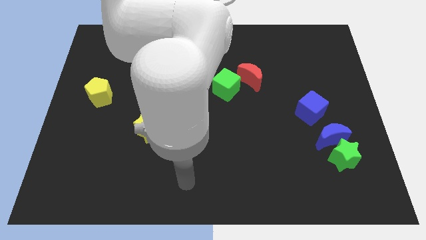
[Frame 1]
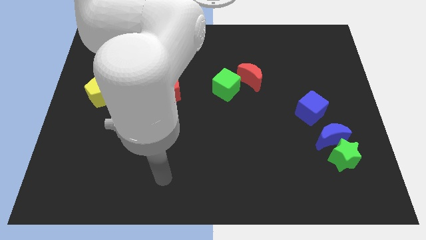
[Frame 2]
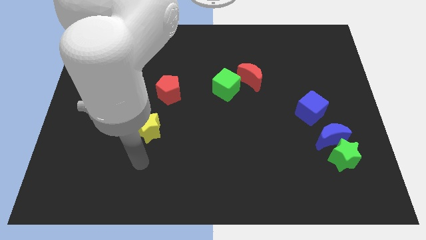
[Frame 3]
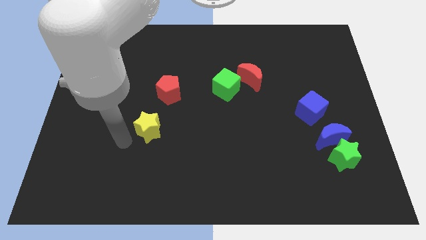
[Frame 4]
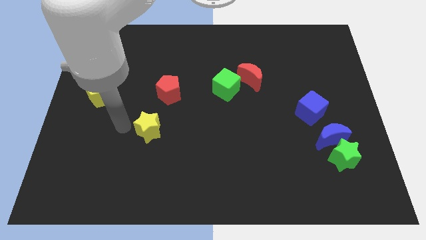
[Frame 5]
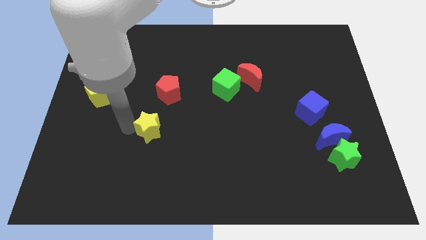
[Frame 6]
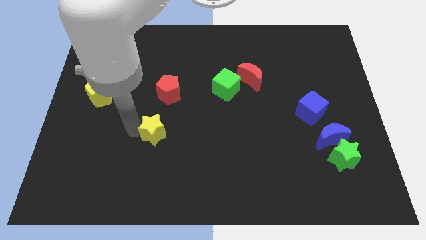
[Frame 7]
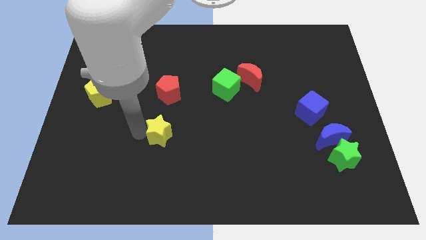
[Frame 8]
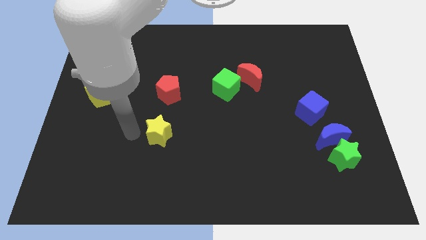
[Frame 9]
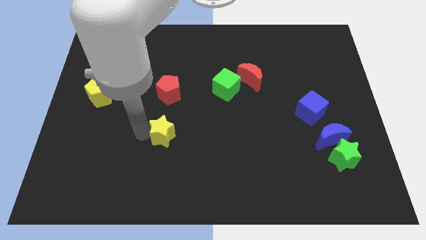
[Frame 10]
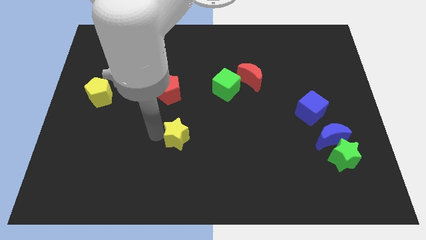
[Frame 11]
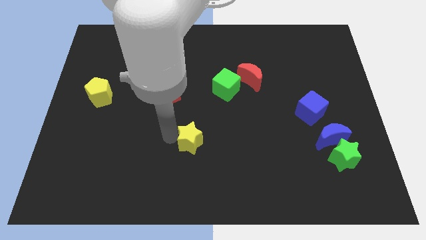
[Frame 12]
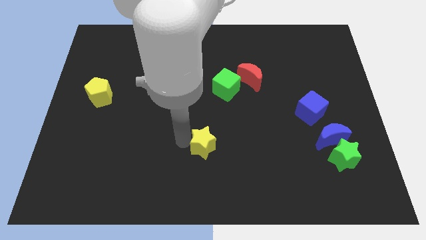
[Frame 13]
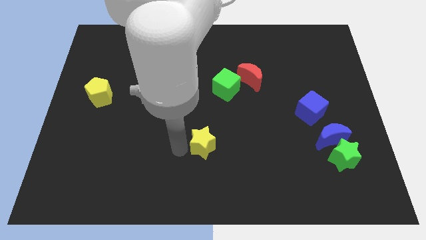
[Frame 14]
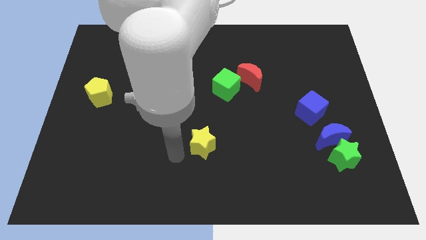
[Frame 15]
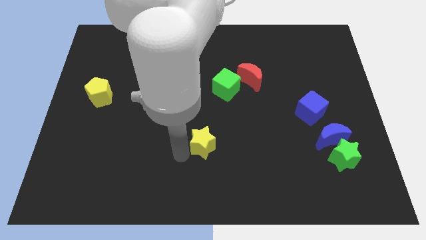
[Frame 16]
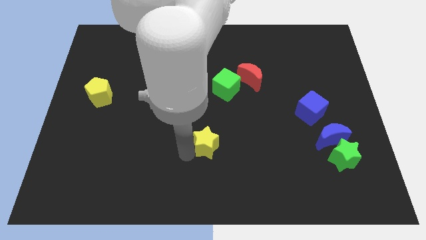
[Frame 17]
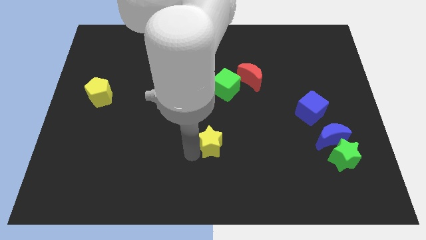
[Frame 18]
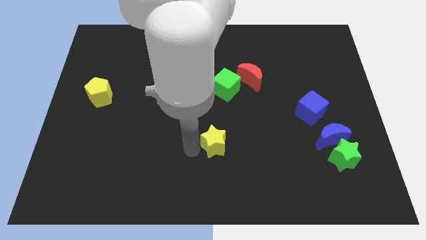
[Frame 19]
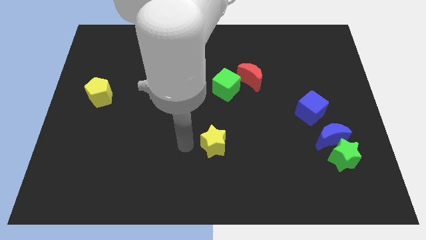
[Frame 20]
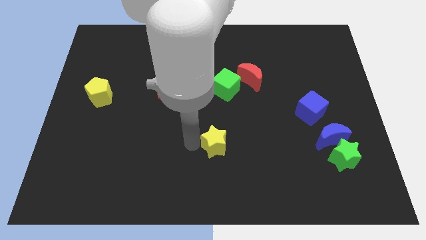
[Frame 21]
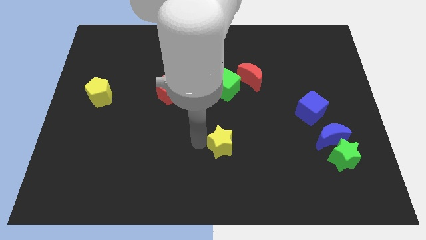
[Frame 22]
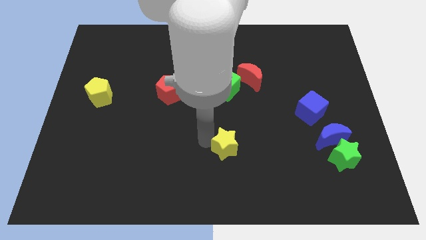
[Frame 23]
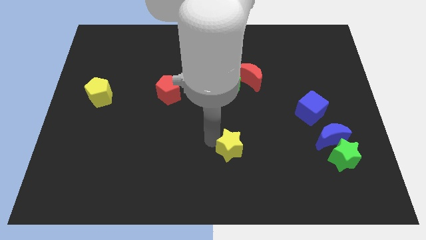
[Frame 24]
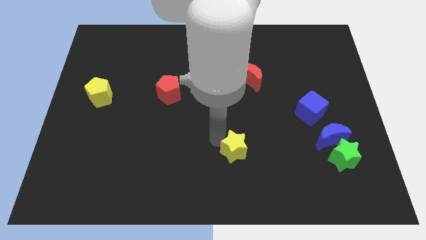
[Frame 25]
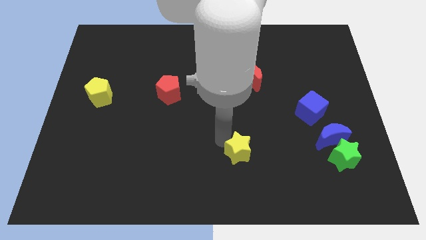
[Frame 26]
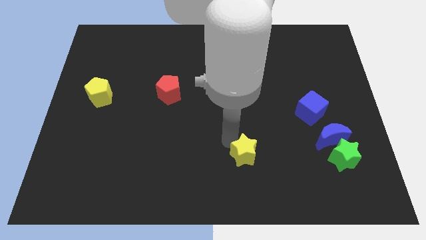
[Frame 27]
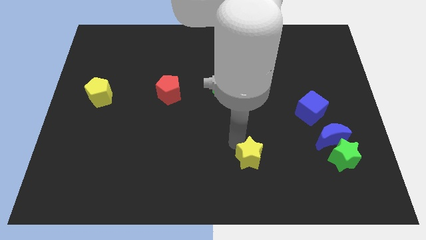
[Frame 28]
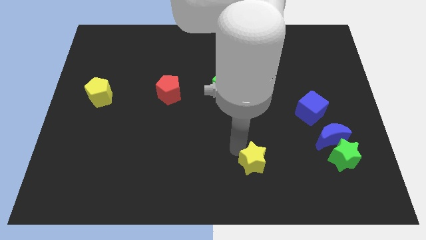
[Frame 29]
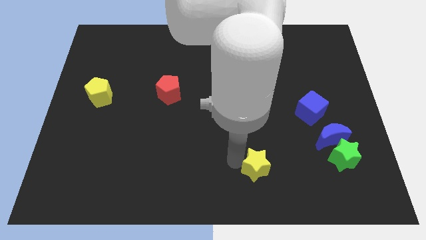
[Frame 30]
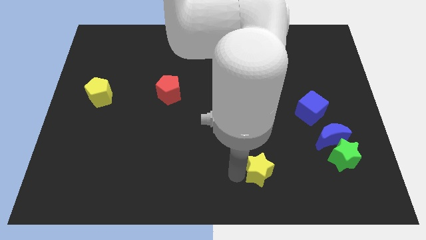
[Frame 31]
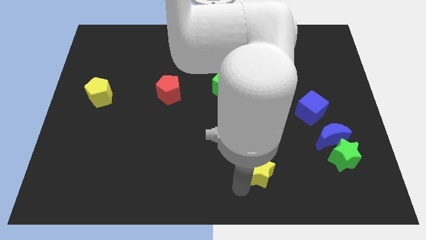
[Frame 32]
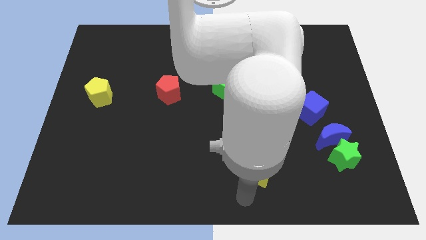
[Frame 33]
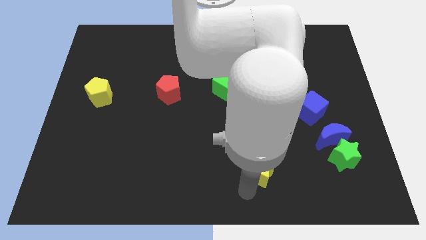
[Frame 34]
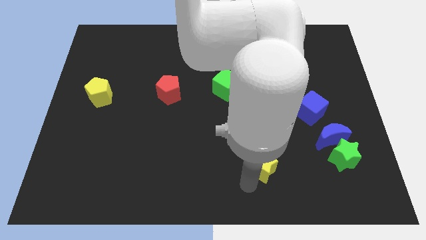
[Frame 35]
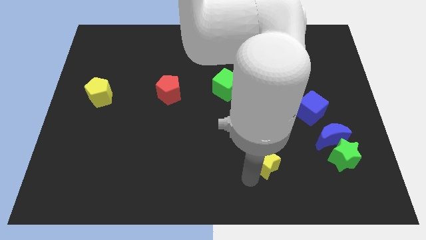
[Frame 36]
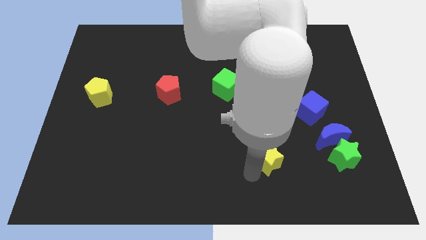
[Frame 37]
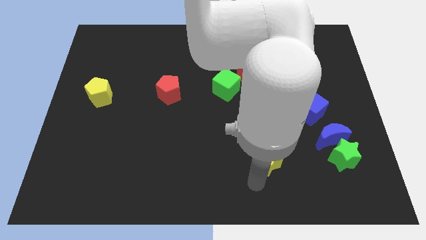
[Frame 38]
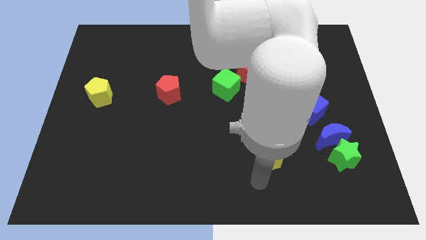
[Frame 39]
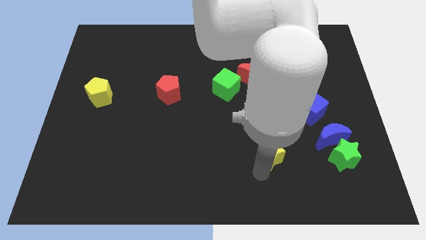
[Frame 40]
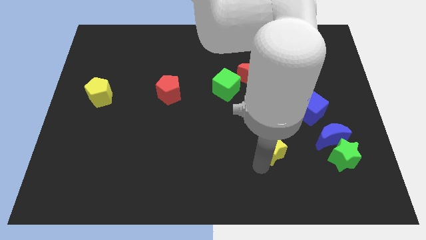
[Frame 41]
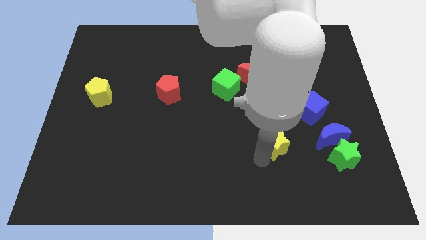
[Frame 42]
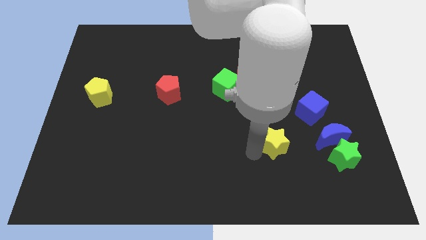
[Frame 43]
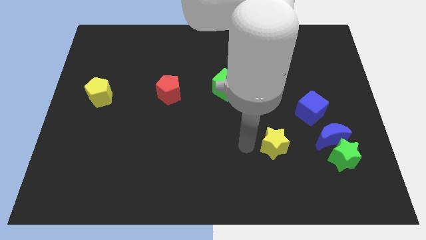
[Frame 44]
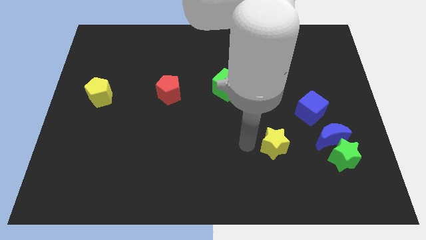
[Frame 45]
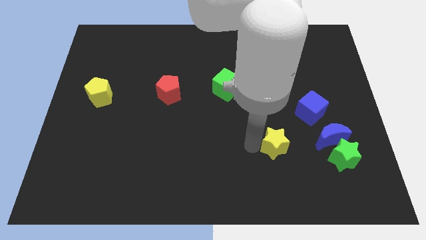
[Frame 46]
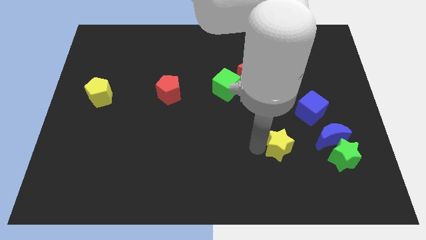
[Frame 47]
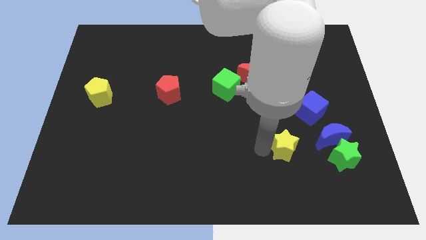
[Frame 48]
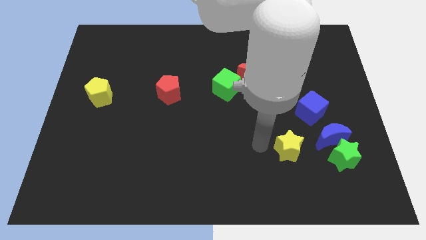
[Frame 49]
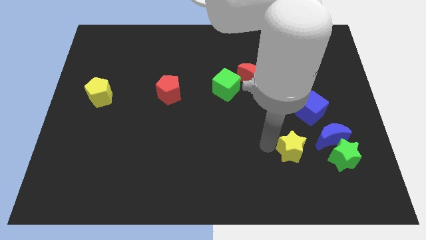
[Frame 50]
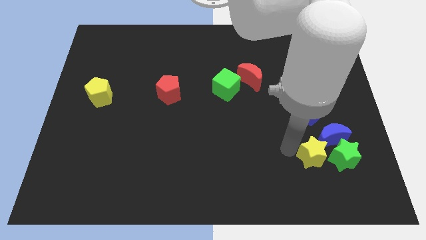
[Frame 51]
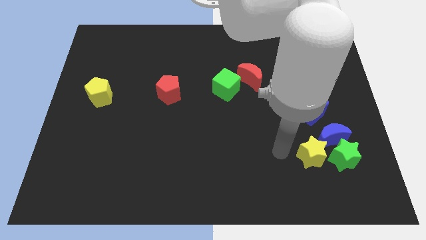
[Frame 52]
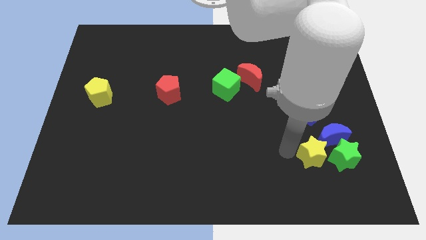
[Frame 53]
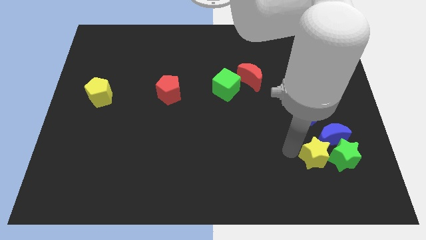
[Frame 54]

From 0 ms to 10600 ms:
put the yellow star to the green star

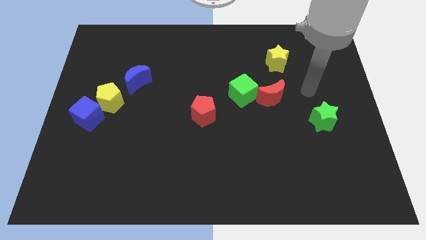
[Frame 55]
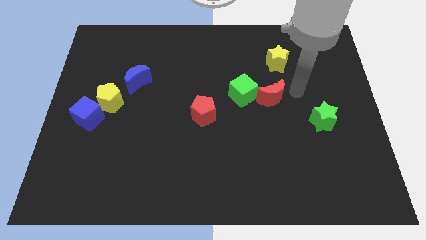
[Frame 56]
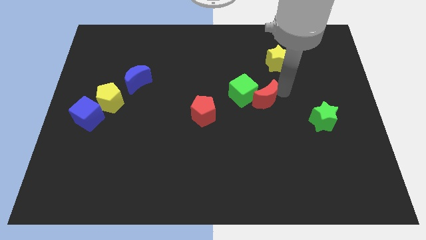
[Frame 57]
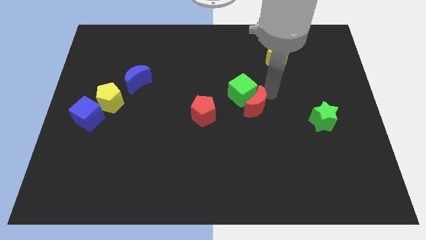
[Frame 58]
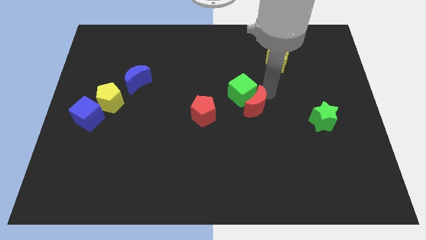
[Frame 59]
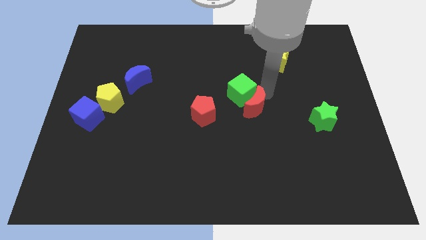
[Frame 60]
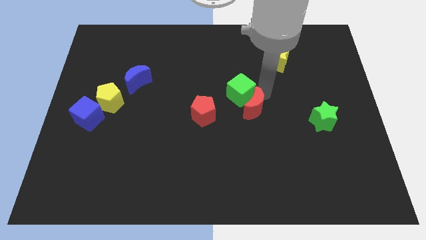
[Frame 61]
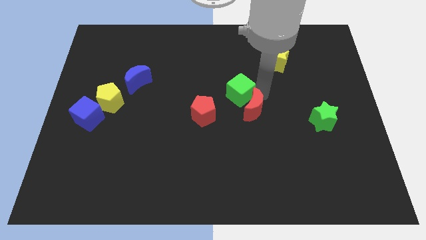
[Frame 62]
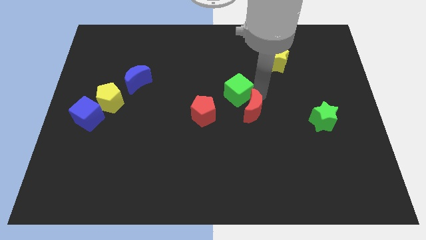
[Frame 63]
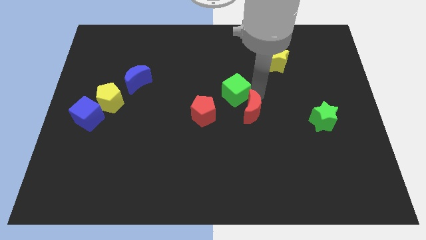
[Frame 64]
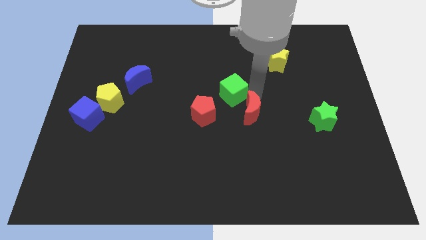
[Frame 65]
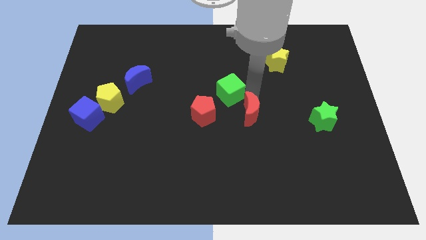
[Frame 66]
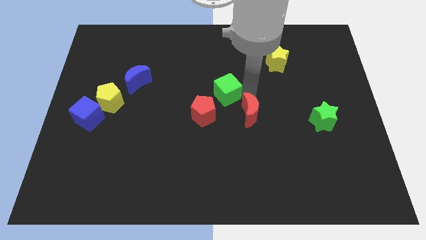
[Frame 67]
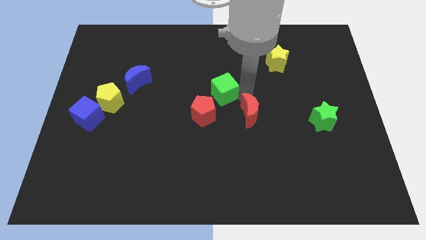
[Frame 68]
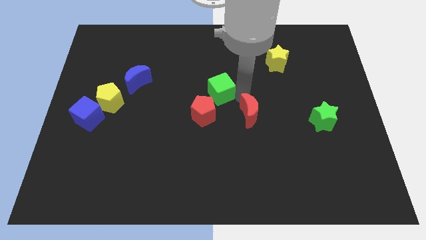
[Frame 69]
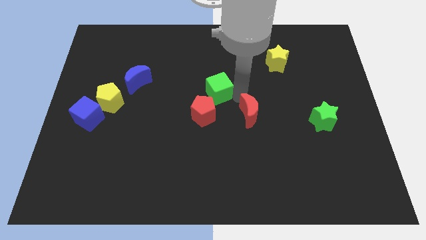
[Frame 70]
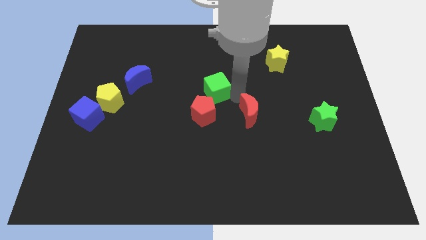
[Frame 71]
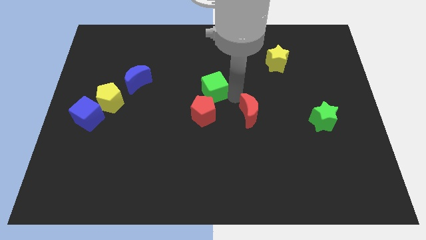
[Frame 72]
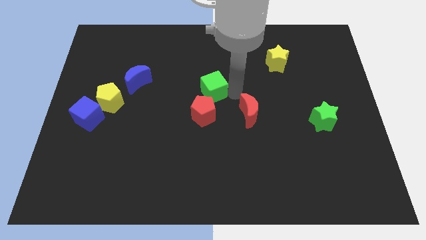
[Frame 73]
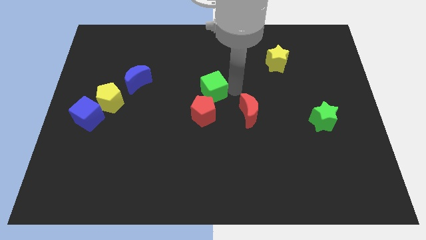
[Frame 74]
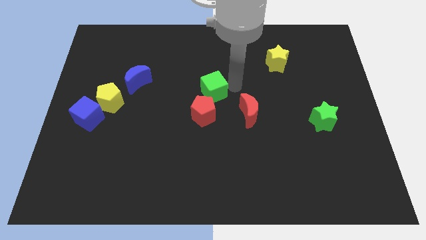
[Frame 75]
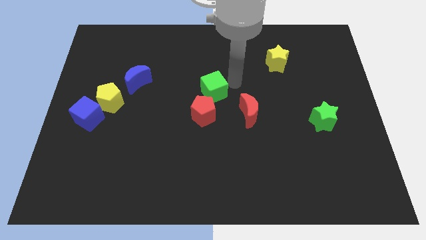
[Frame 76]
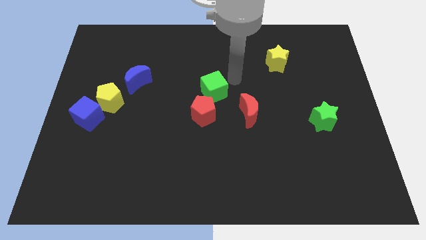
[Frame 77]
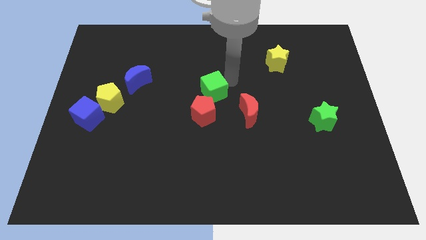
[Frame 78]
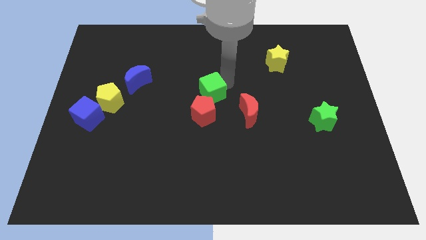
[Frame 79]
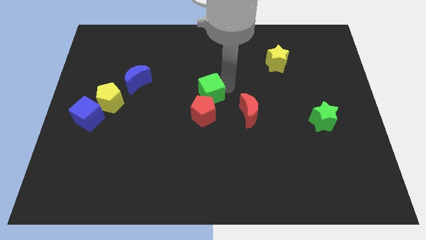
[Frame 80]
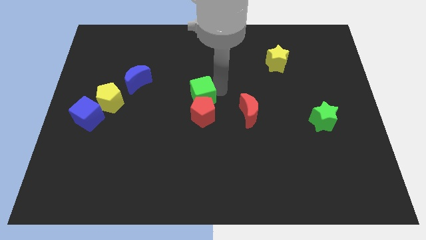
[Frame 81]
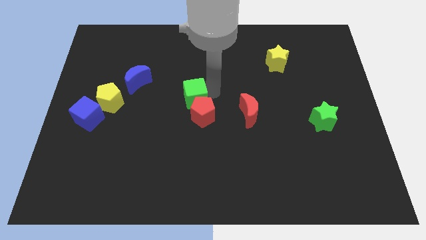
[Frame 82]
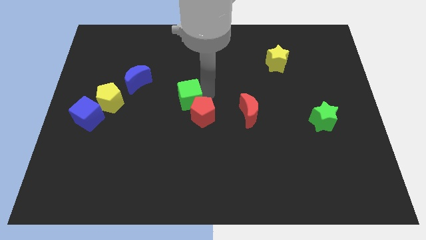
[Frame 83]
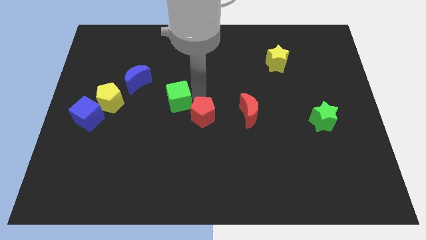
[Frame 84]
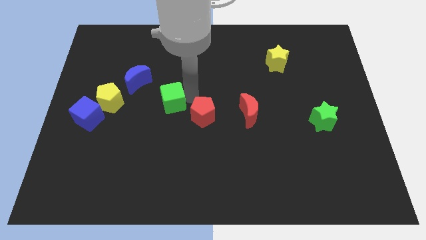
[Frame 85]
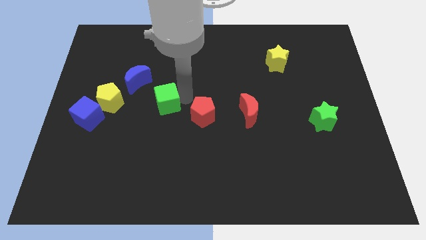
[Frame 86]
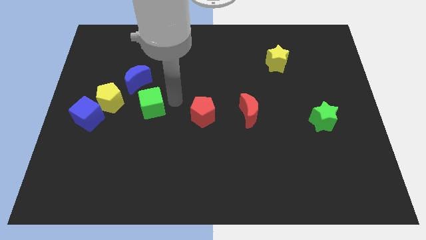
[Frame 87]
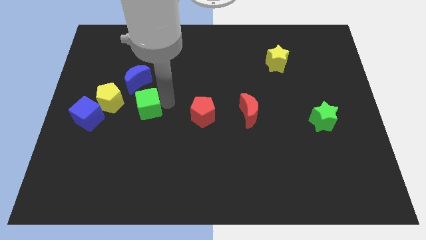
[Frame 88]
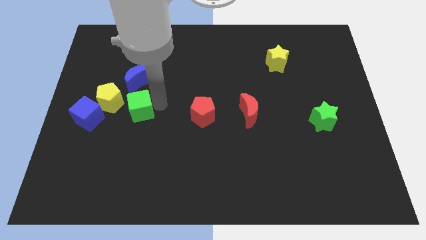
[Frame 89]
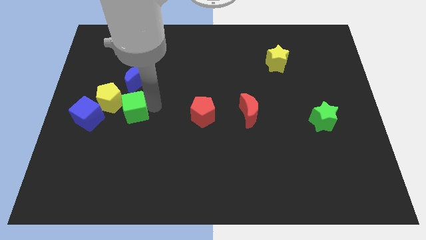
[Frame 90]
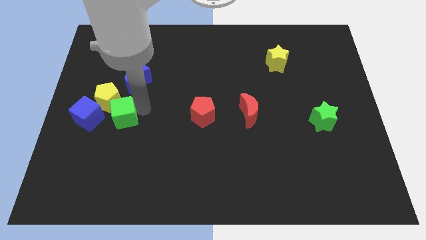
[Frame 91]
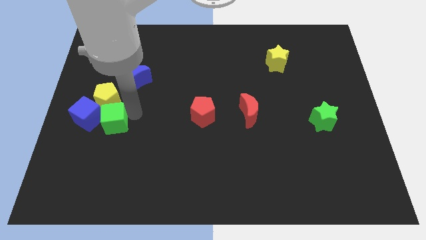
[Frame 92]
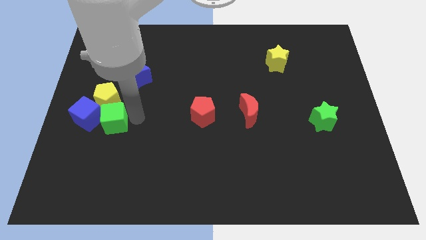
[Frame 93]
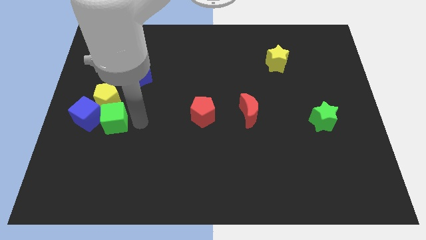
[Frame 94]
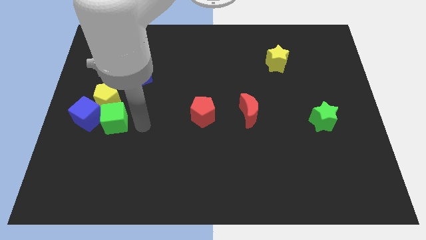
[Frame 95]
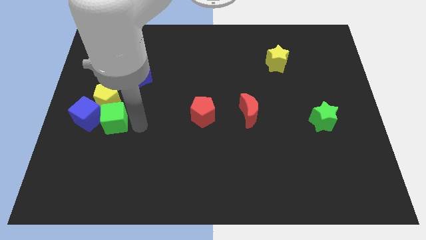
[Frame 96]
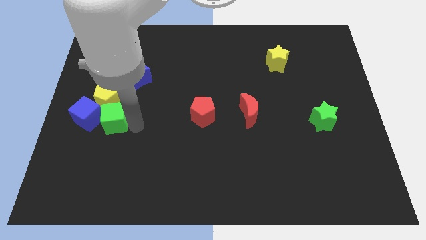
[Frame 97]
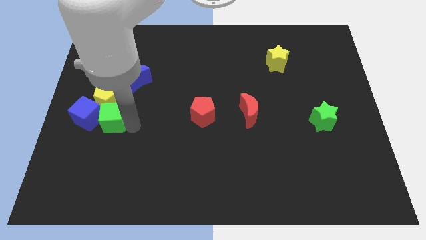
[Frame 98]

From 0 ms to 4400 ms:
slide the green cube towards the blue cube
